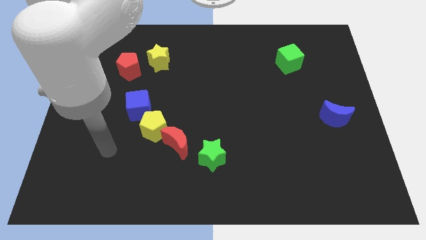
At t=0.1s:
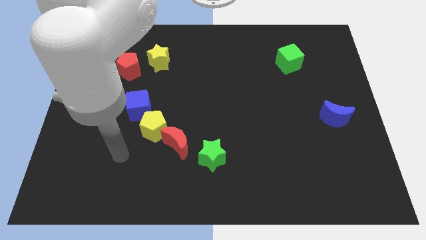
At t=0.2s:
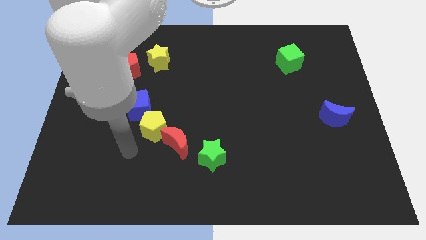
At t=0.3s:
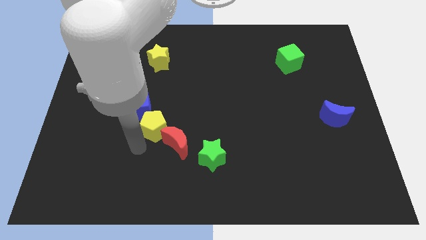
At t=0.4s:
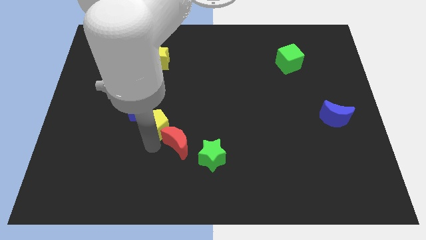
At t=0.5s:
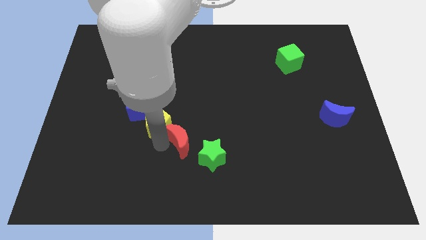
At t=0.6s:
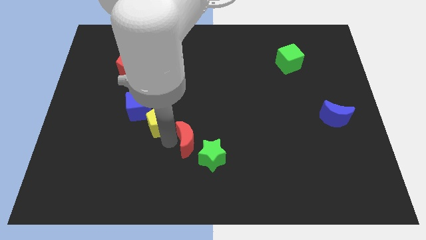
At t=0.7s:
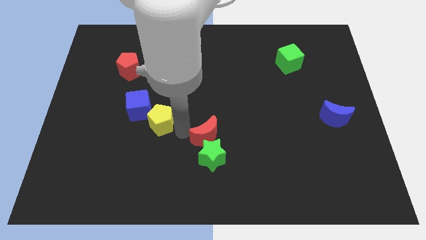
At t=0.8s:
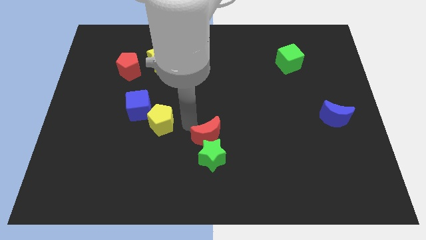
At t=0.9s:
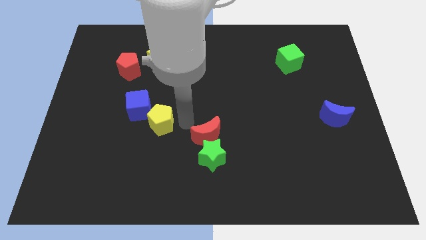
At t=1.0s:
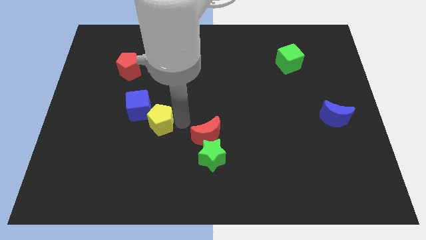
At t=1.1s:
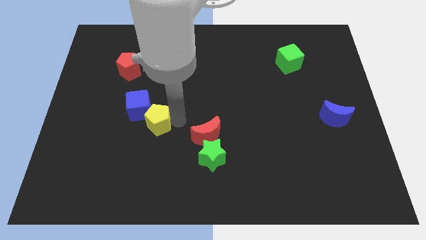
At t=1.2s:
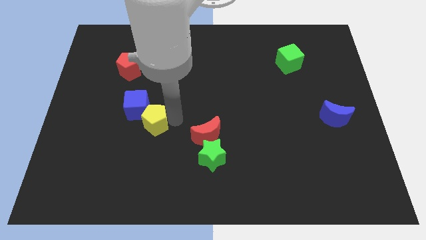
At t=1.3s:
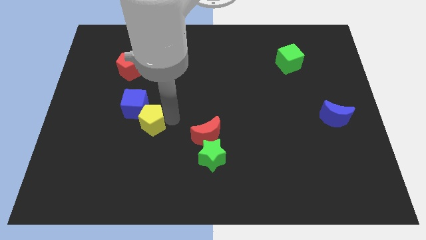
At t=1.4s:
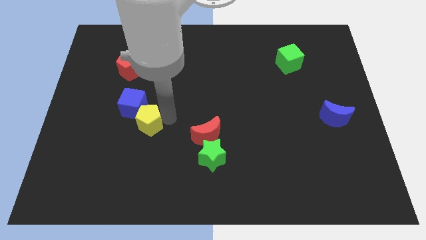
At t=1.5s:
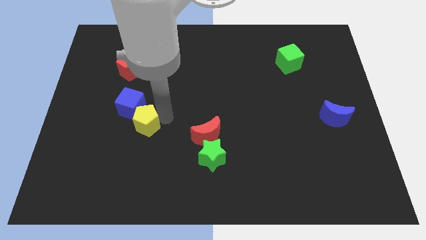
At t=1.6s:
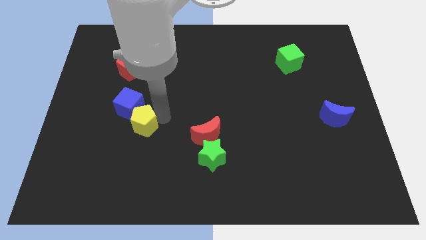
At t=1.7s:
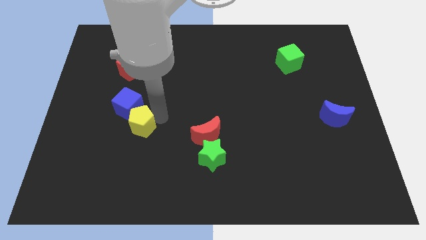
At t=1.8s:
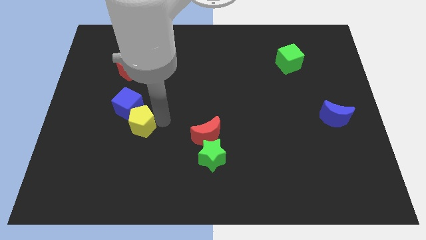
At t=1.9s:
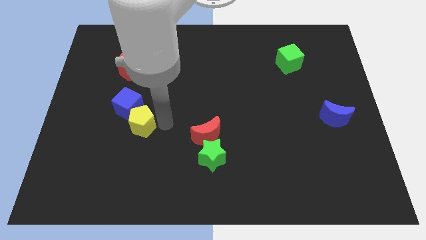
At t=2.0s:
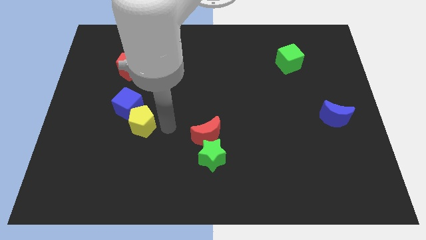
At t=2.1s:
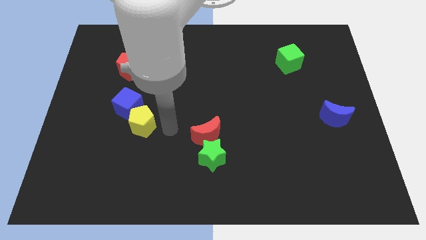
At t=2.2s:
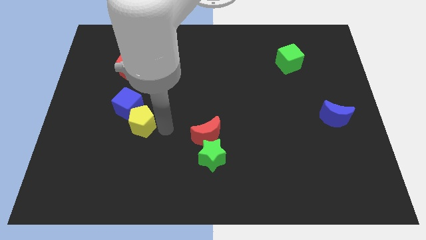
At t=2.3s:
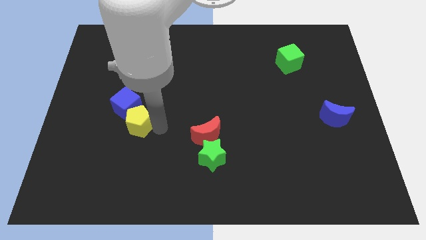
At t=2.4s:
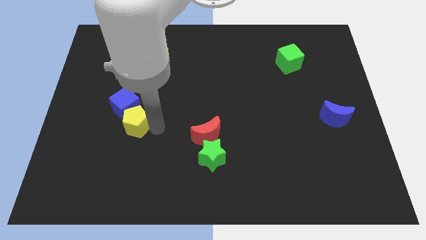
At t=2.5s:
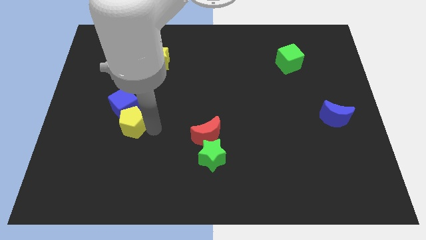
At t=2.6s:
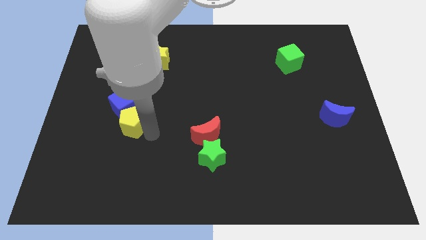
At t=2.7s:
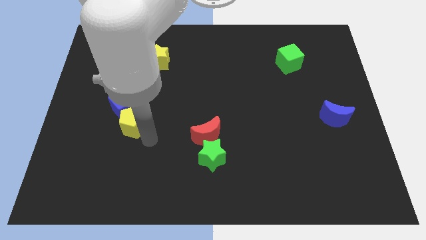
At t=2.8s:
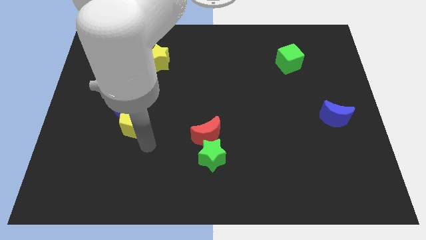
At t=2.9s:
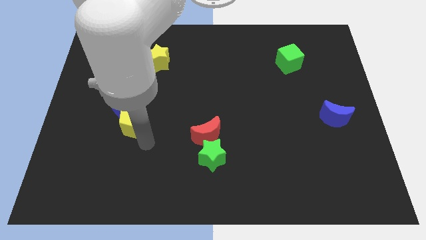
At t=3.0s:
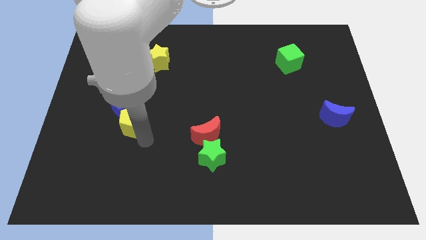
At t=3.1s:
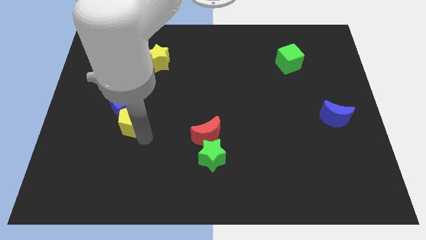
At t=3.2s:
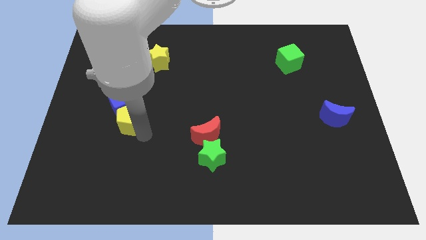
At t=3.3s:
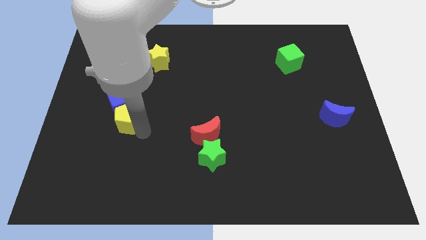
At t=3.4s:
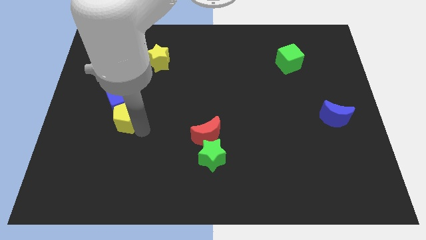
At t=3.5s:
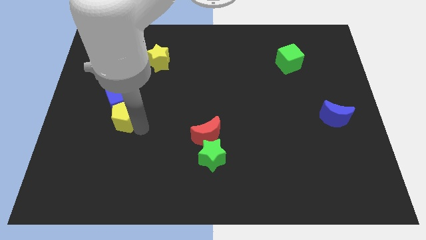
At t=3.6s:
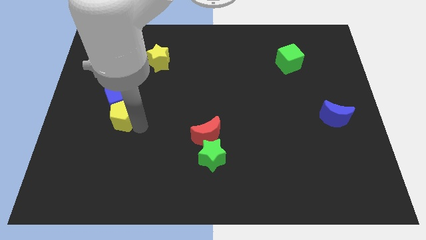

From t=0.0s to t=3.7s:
slide the yellow pentagon upwards and then to the left somewhat

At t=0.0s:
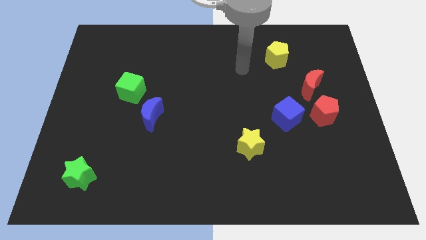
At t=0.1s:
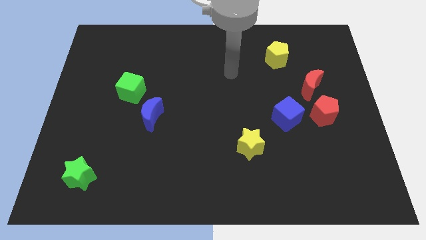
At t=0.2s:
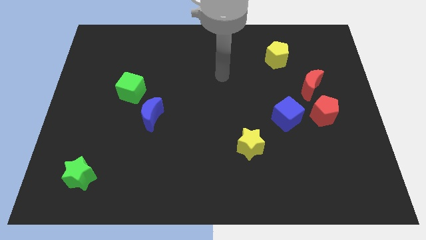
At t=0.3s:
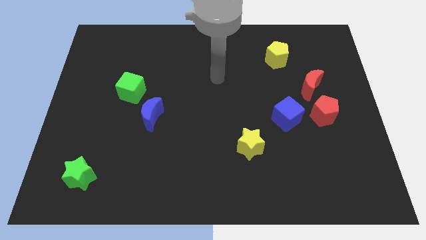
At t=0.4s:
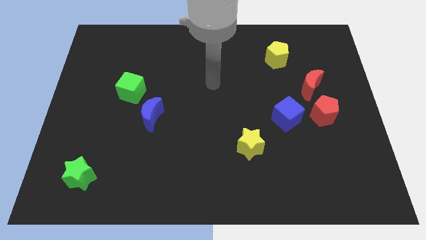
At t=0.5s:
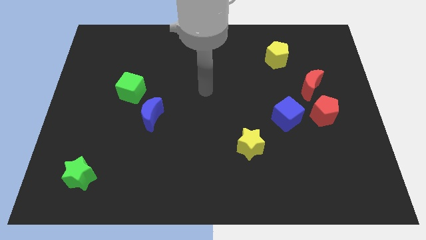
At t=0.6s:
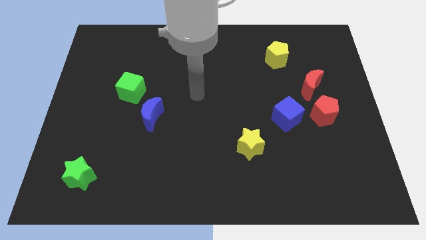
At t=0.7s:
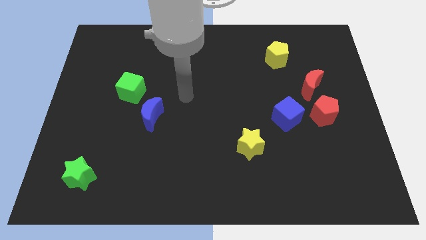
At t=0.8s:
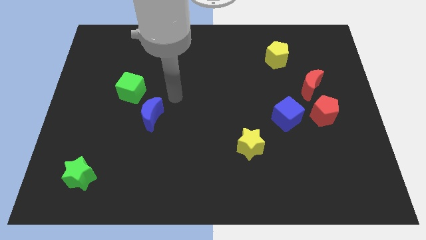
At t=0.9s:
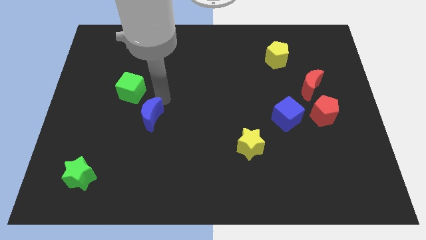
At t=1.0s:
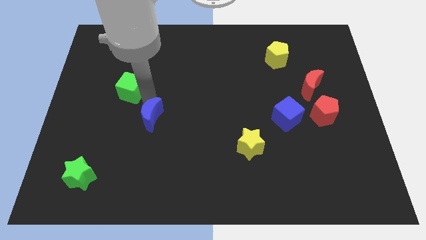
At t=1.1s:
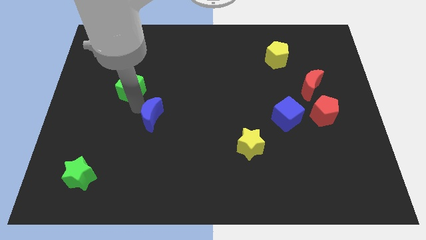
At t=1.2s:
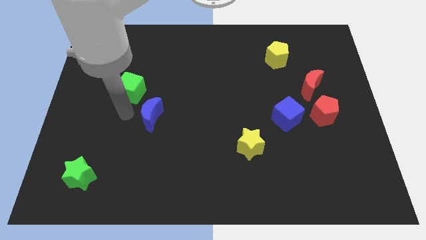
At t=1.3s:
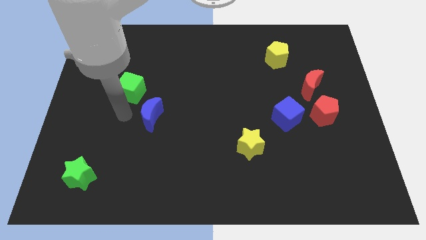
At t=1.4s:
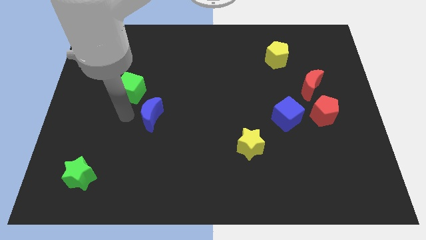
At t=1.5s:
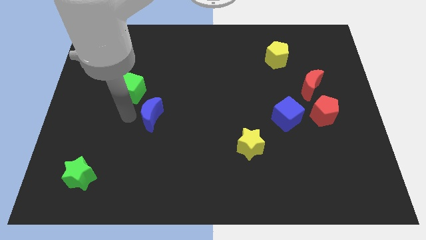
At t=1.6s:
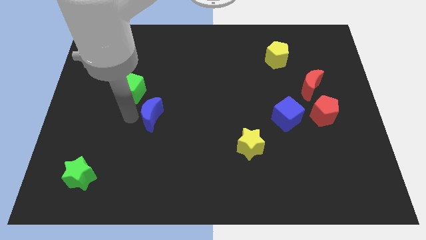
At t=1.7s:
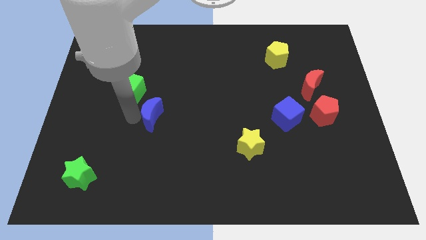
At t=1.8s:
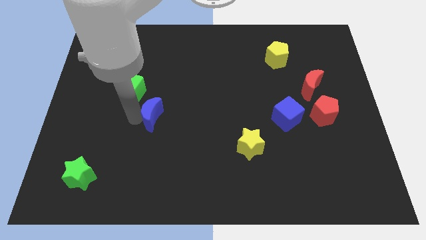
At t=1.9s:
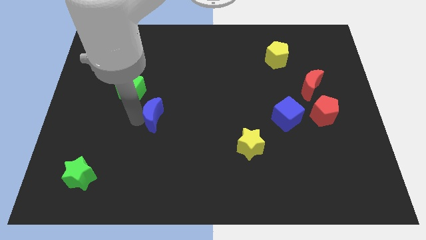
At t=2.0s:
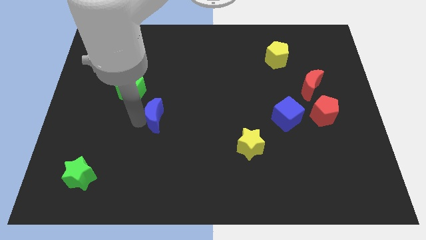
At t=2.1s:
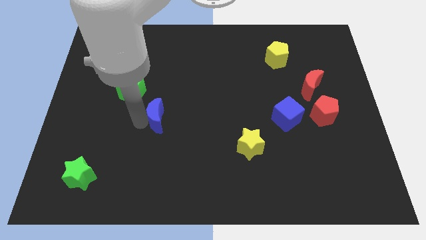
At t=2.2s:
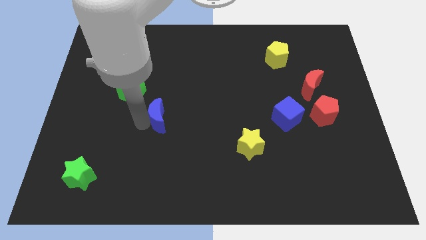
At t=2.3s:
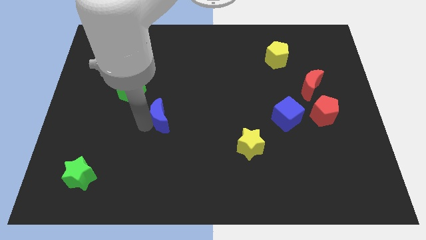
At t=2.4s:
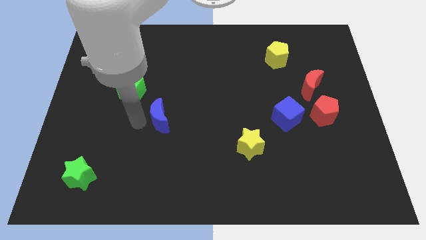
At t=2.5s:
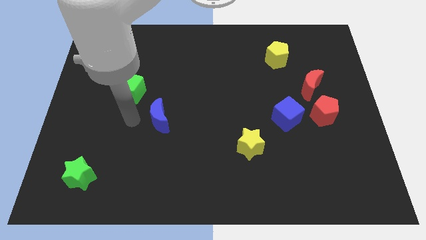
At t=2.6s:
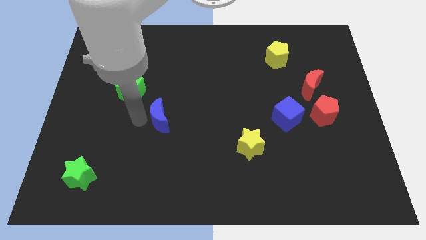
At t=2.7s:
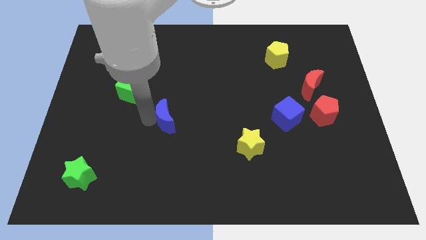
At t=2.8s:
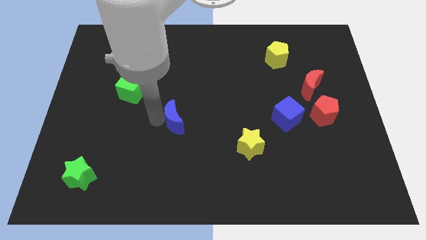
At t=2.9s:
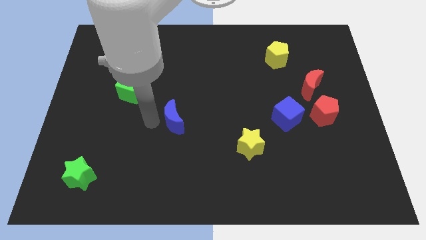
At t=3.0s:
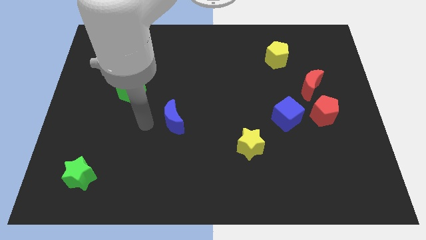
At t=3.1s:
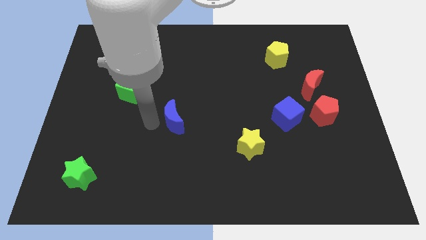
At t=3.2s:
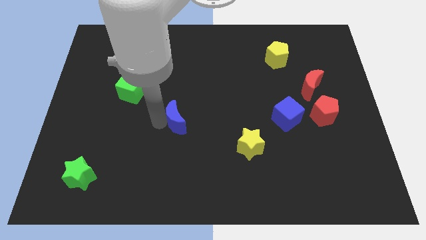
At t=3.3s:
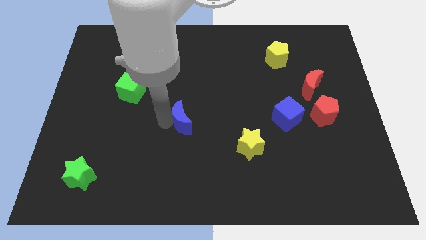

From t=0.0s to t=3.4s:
slide the blue moon right a little bit

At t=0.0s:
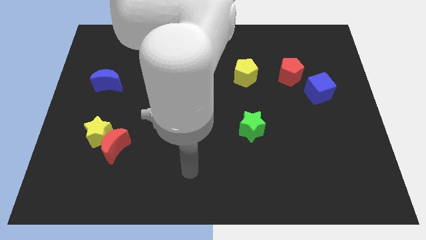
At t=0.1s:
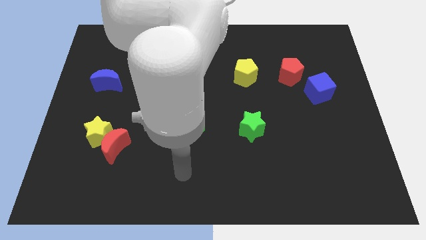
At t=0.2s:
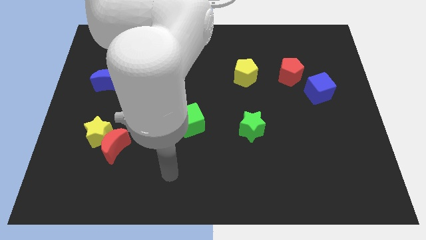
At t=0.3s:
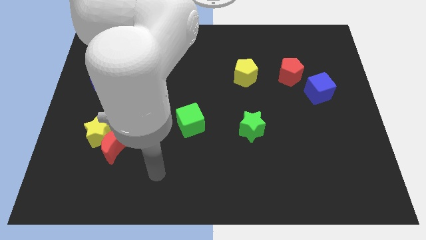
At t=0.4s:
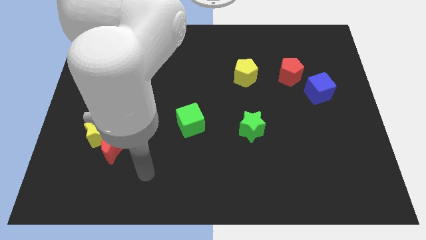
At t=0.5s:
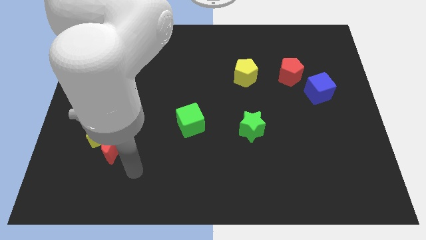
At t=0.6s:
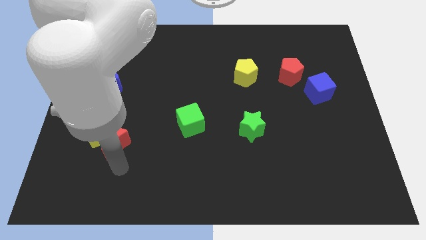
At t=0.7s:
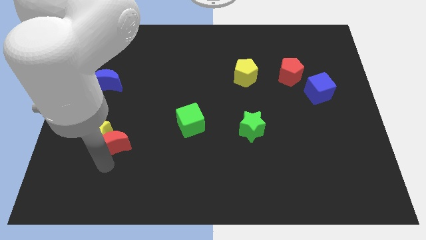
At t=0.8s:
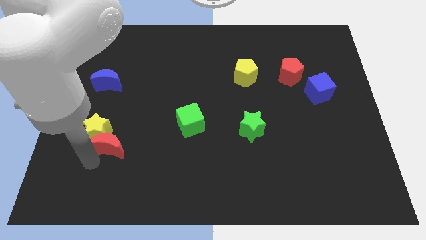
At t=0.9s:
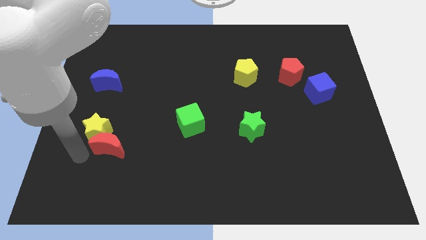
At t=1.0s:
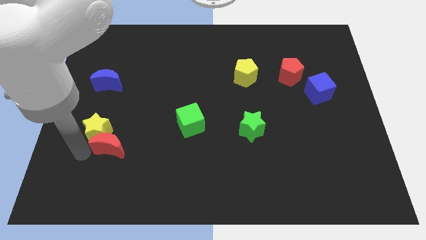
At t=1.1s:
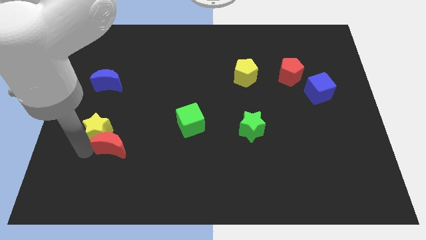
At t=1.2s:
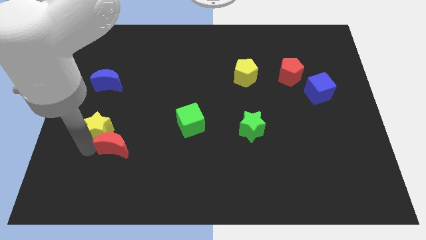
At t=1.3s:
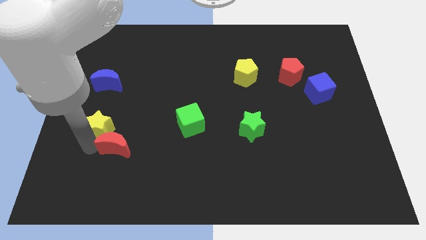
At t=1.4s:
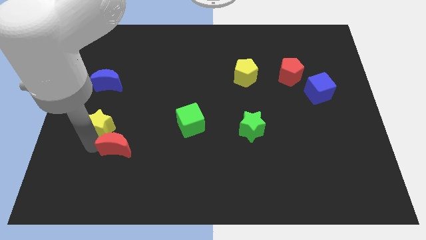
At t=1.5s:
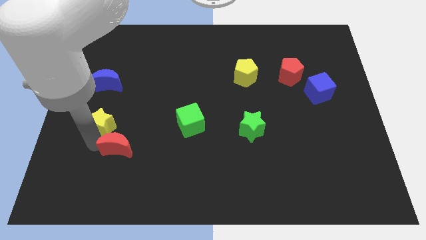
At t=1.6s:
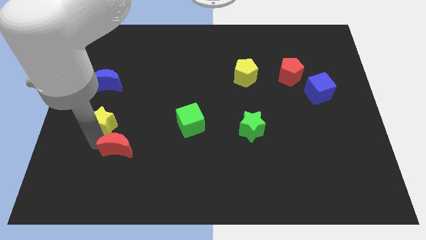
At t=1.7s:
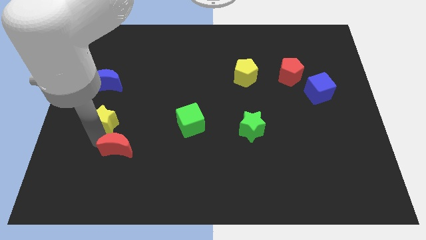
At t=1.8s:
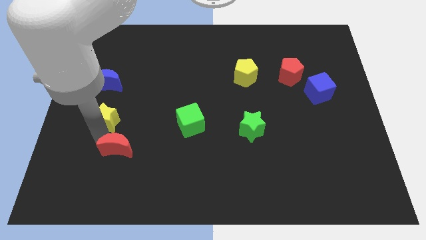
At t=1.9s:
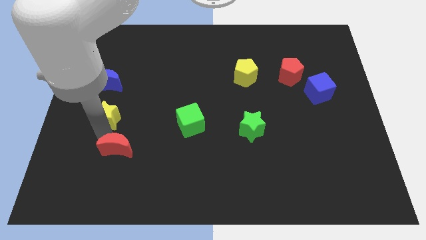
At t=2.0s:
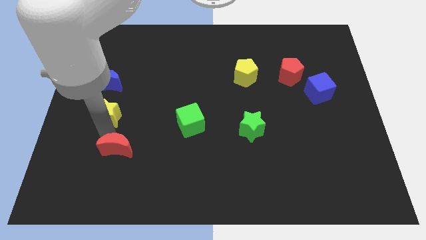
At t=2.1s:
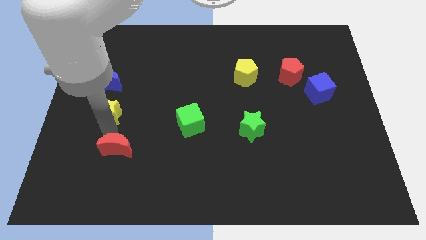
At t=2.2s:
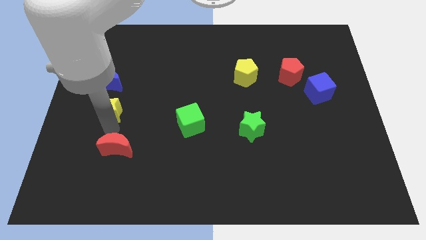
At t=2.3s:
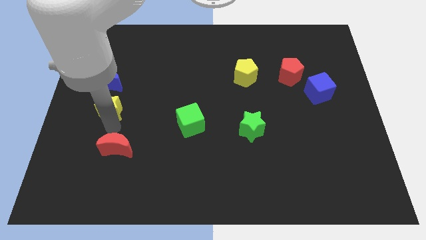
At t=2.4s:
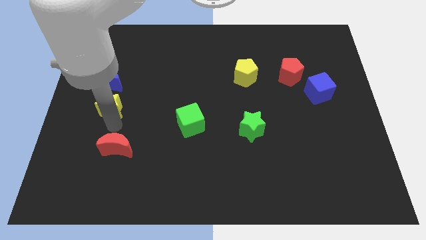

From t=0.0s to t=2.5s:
slightly slide the yellow star up
